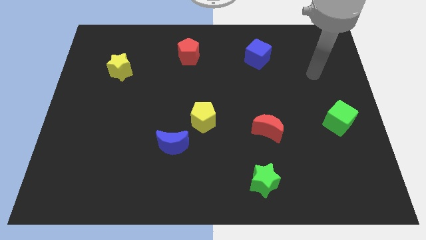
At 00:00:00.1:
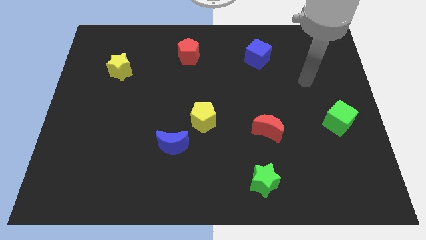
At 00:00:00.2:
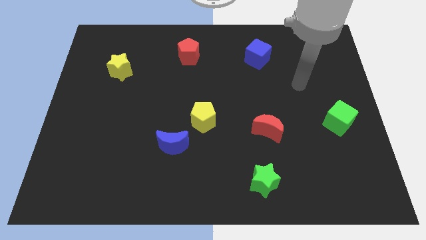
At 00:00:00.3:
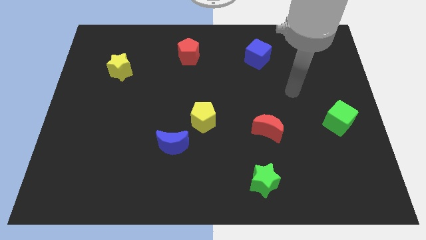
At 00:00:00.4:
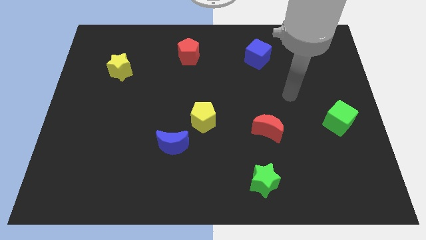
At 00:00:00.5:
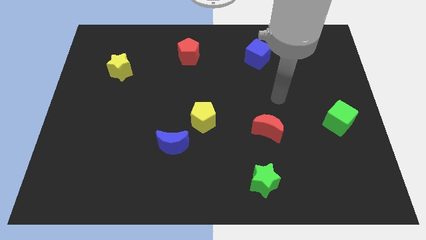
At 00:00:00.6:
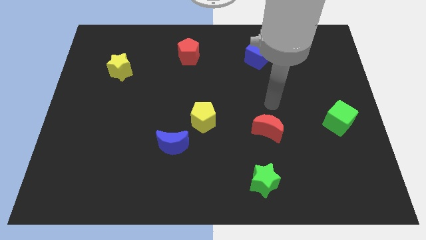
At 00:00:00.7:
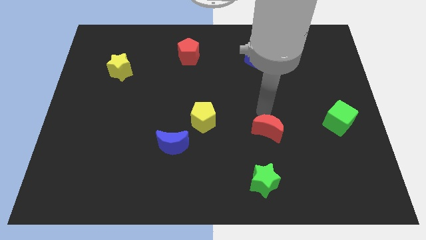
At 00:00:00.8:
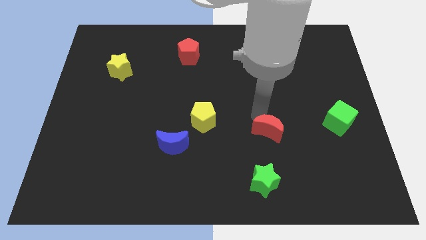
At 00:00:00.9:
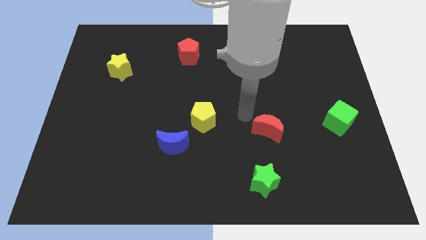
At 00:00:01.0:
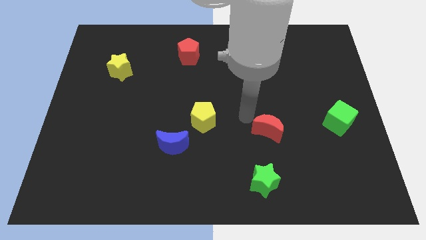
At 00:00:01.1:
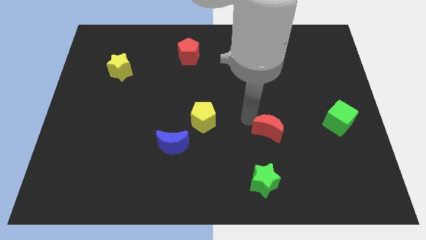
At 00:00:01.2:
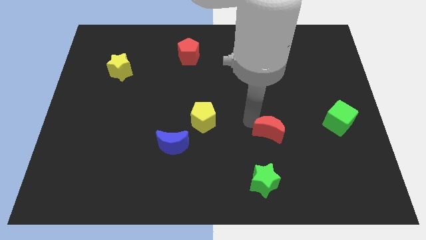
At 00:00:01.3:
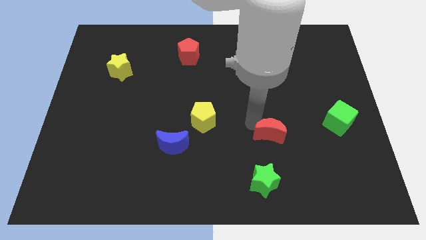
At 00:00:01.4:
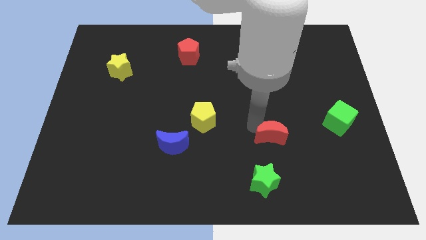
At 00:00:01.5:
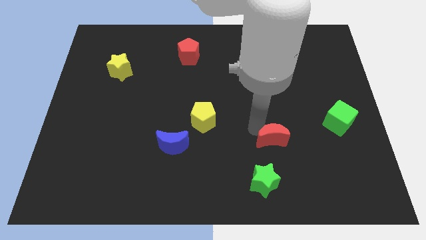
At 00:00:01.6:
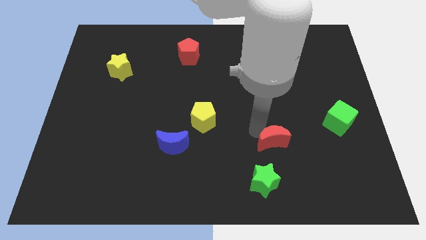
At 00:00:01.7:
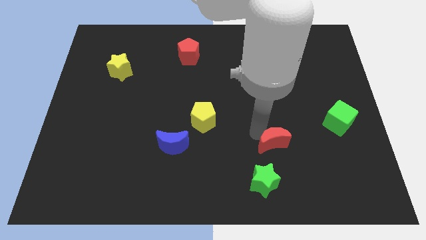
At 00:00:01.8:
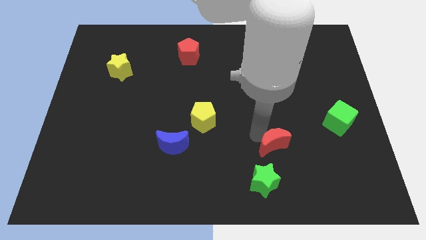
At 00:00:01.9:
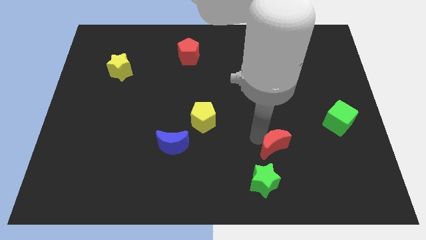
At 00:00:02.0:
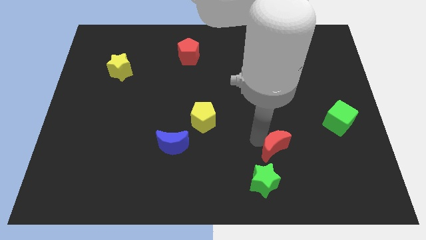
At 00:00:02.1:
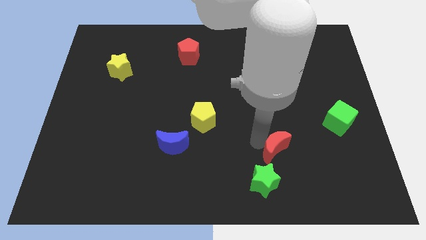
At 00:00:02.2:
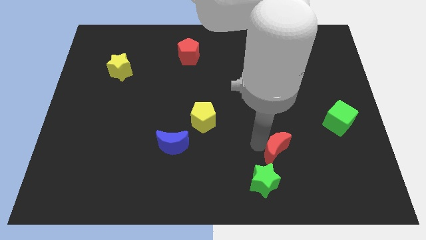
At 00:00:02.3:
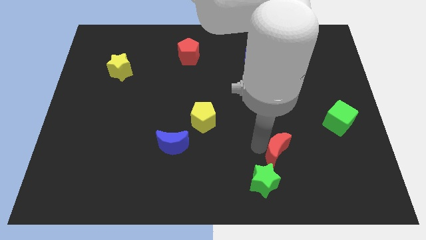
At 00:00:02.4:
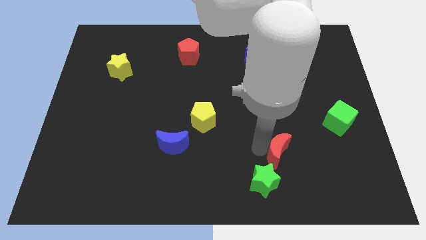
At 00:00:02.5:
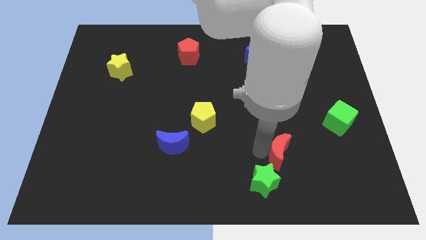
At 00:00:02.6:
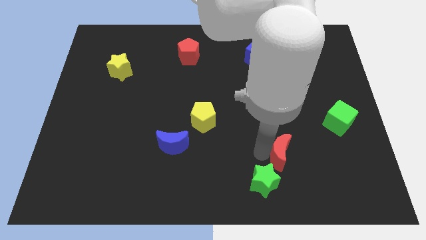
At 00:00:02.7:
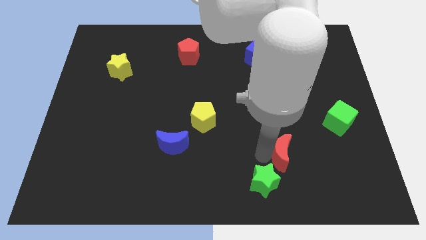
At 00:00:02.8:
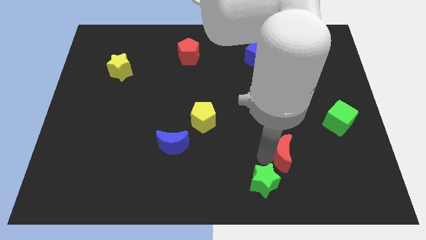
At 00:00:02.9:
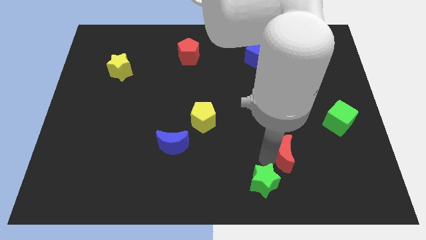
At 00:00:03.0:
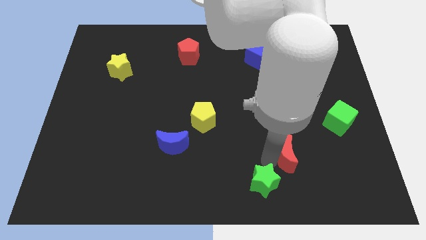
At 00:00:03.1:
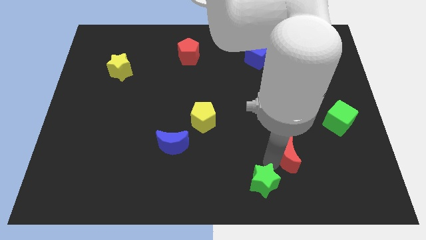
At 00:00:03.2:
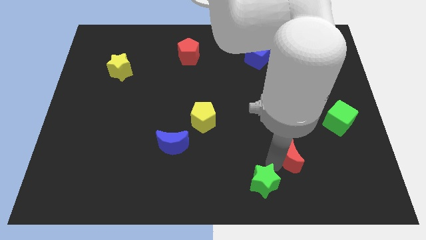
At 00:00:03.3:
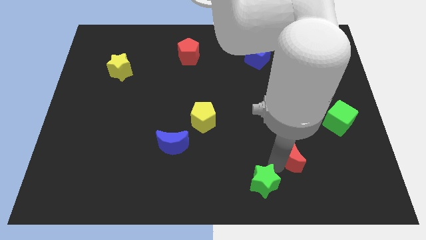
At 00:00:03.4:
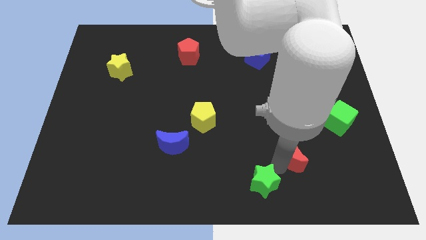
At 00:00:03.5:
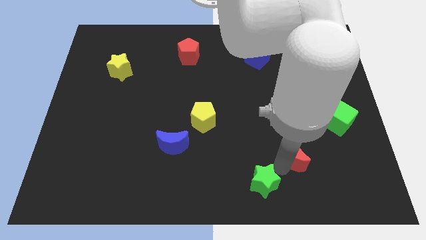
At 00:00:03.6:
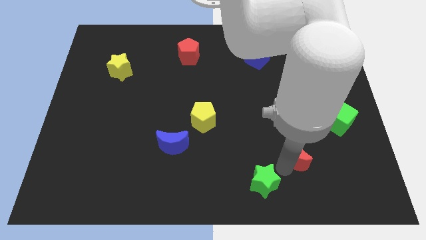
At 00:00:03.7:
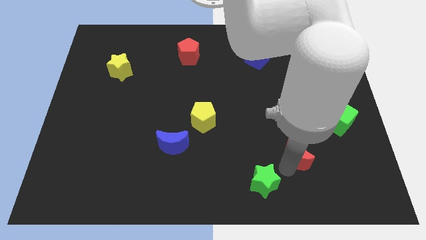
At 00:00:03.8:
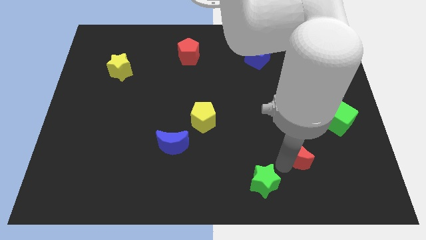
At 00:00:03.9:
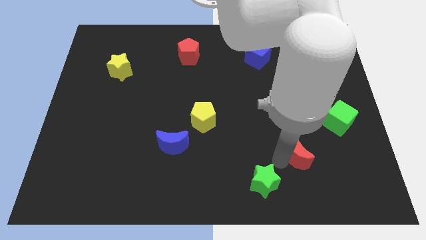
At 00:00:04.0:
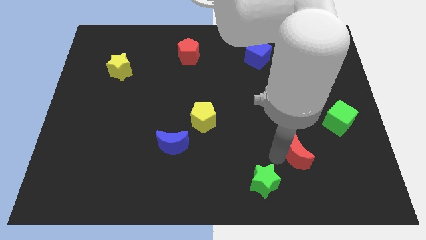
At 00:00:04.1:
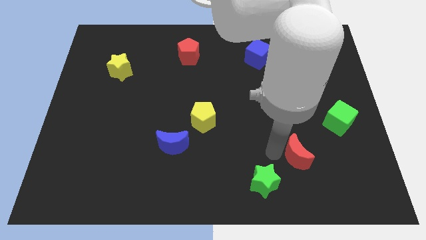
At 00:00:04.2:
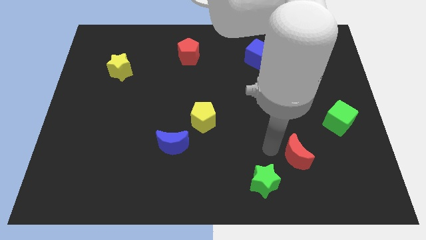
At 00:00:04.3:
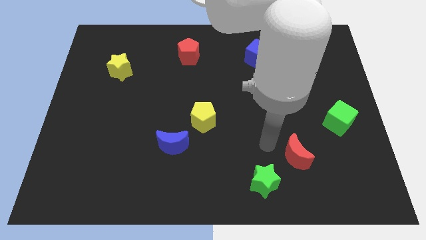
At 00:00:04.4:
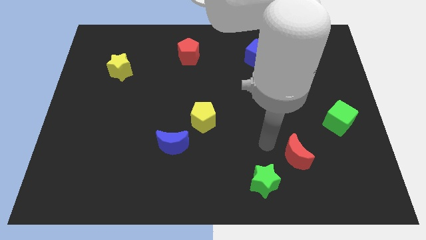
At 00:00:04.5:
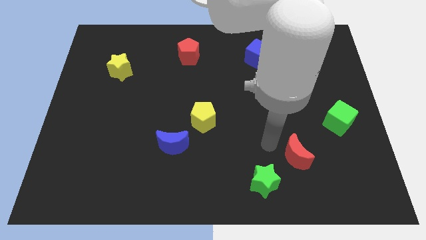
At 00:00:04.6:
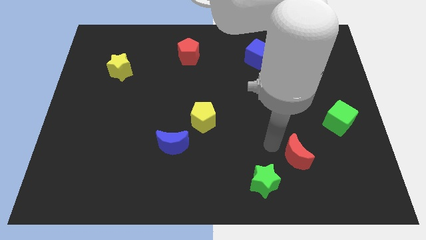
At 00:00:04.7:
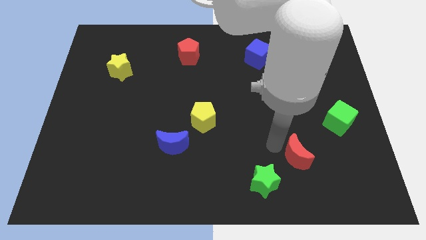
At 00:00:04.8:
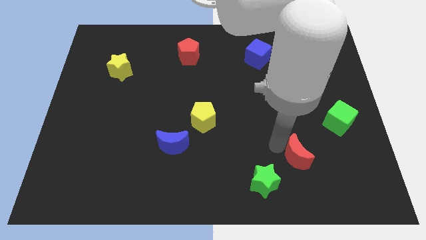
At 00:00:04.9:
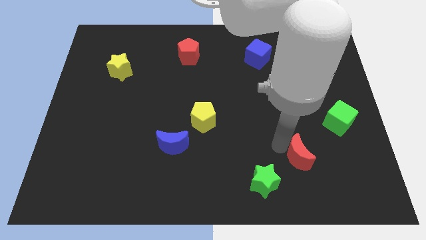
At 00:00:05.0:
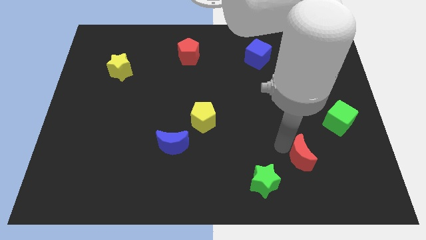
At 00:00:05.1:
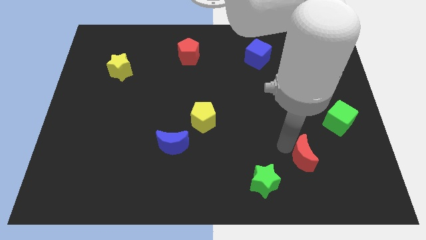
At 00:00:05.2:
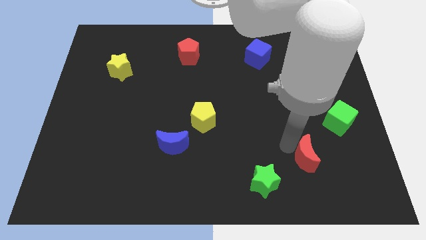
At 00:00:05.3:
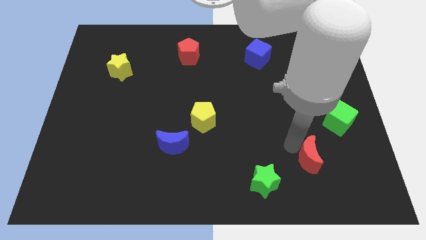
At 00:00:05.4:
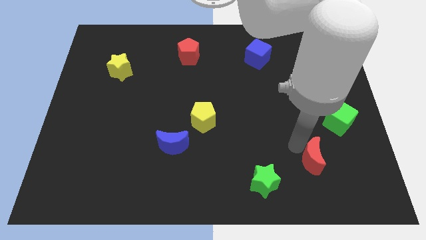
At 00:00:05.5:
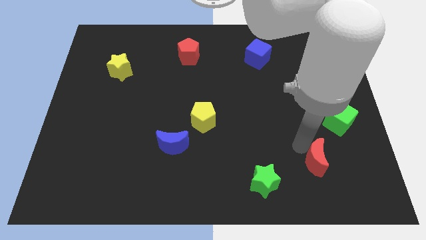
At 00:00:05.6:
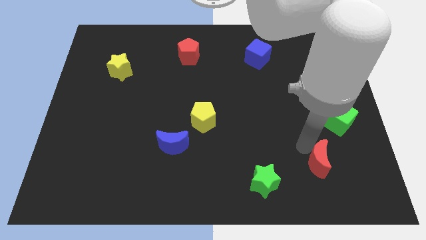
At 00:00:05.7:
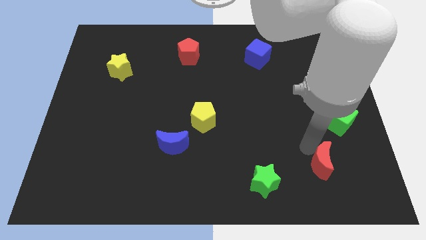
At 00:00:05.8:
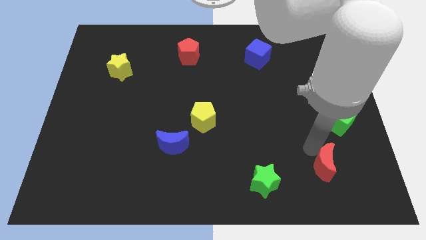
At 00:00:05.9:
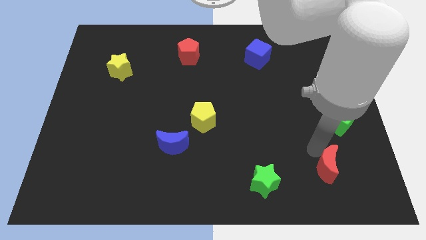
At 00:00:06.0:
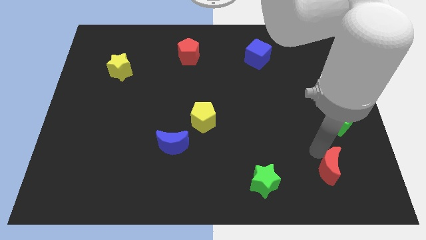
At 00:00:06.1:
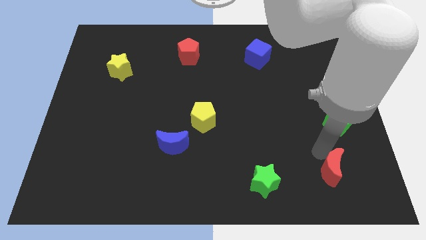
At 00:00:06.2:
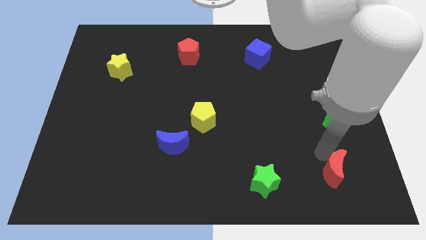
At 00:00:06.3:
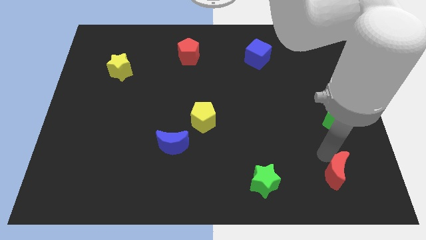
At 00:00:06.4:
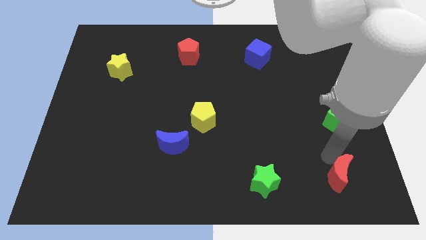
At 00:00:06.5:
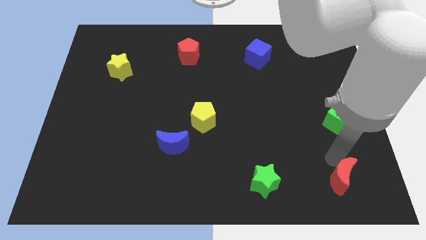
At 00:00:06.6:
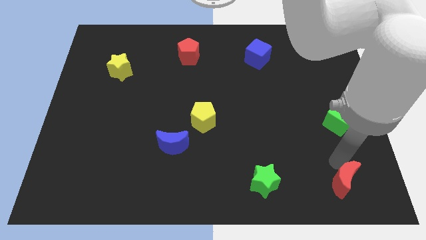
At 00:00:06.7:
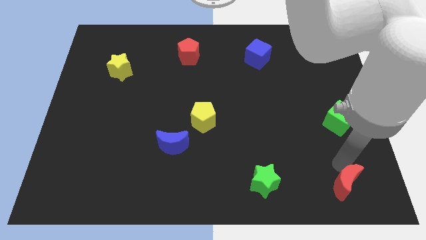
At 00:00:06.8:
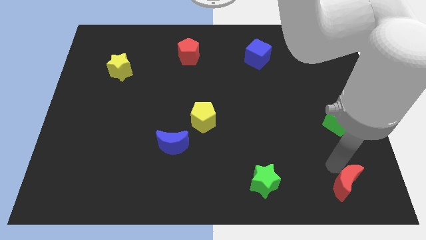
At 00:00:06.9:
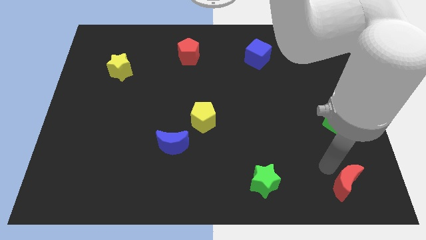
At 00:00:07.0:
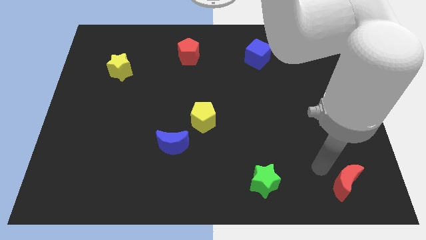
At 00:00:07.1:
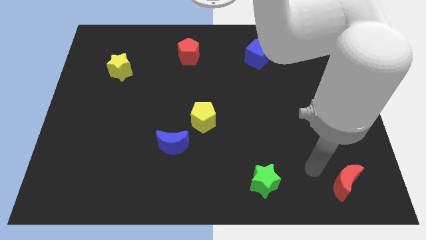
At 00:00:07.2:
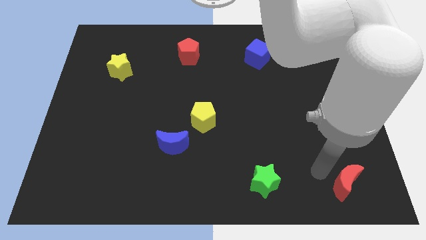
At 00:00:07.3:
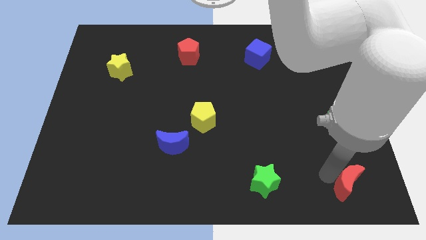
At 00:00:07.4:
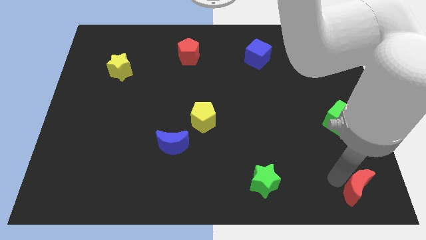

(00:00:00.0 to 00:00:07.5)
put the red moon to the bottom right of the board
